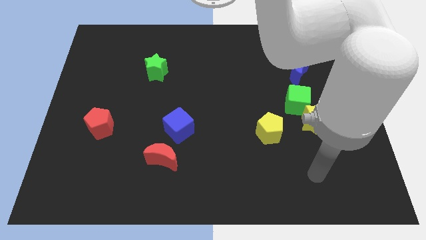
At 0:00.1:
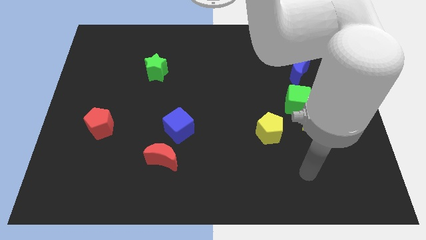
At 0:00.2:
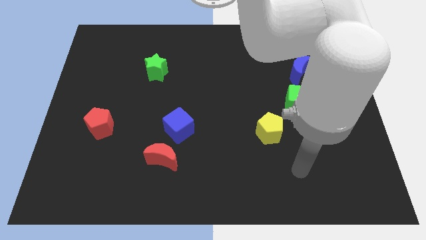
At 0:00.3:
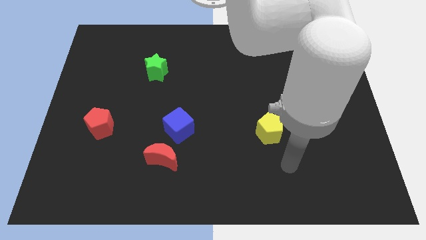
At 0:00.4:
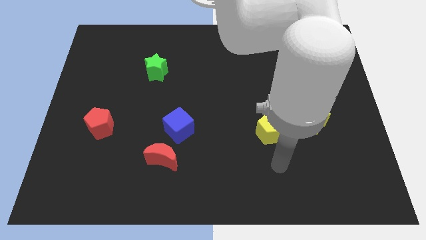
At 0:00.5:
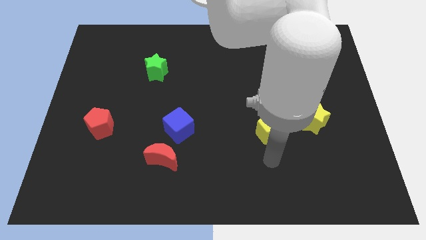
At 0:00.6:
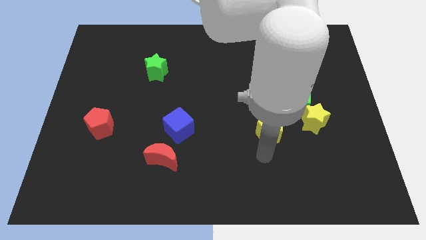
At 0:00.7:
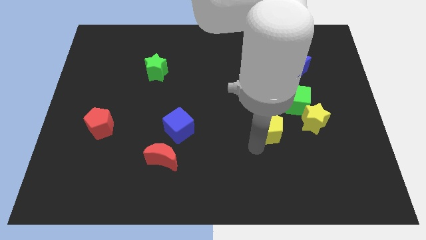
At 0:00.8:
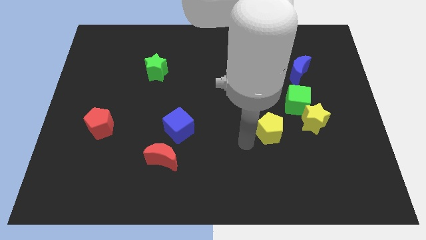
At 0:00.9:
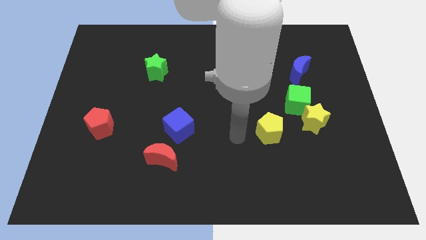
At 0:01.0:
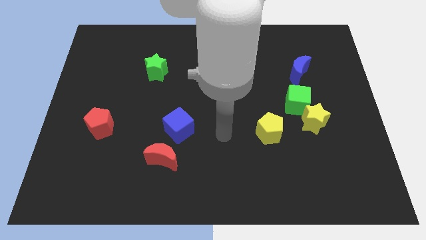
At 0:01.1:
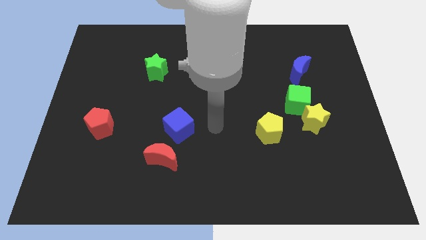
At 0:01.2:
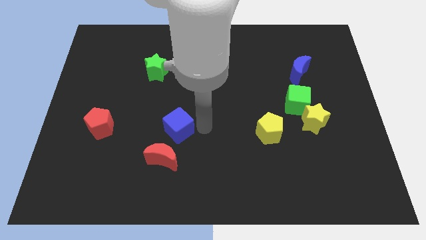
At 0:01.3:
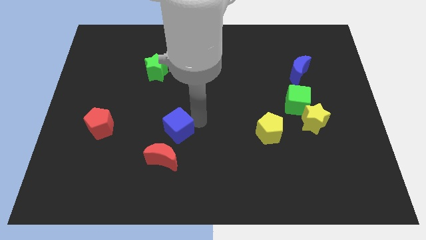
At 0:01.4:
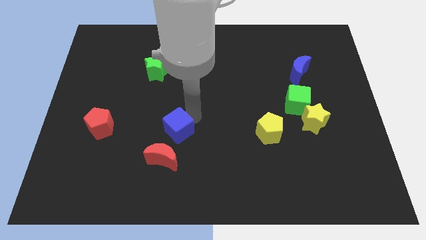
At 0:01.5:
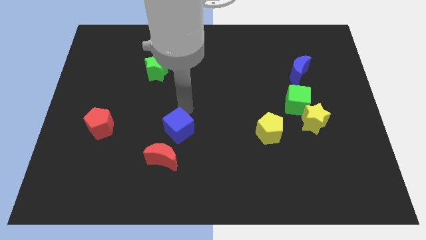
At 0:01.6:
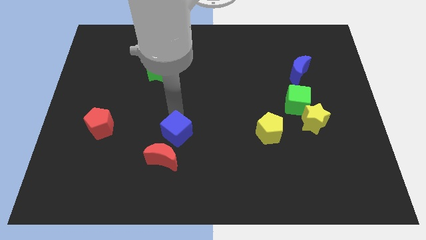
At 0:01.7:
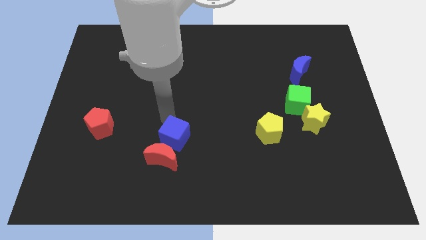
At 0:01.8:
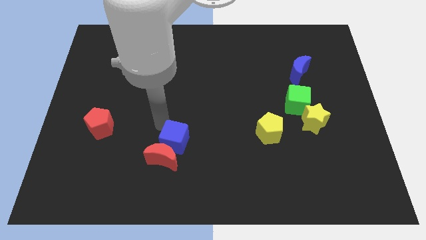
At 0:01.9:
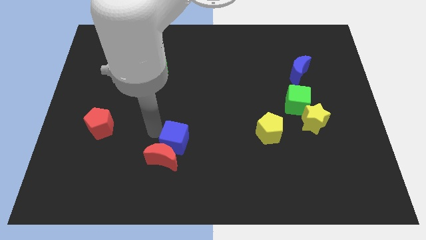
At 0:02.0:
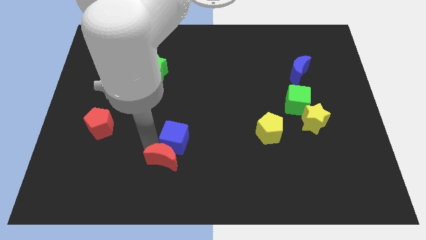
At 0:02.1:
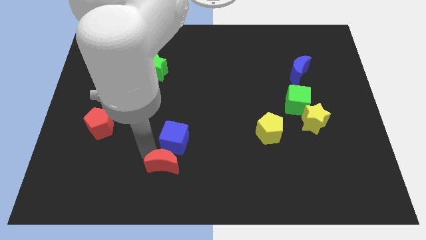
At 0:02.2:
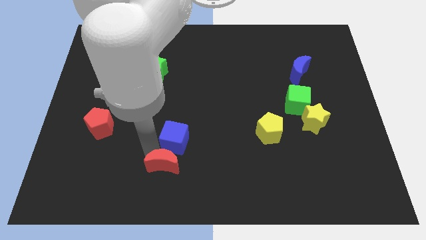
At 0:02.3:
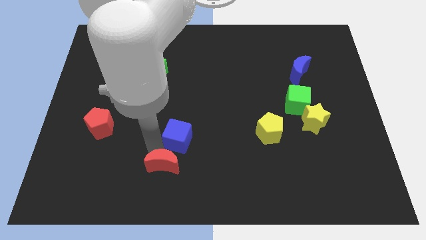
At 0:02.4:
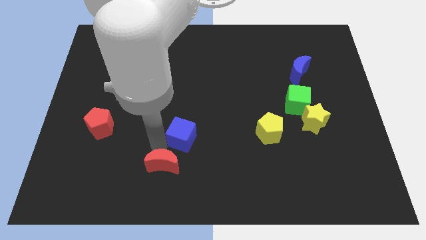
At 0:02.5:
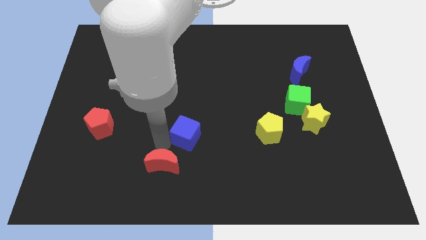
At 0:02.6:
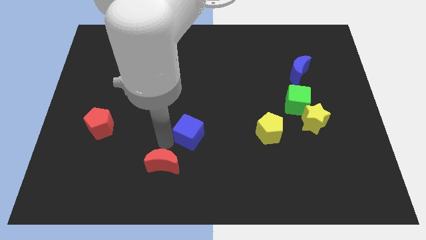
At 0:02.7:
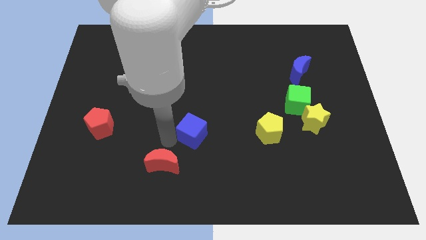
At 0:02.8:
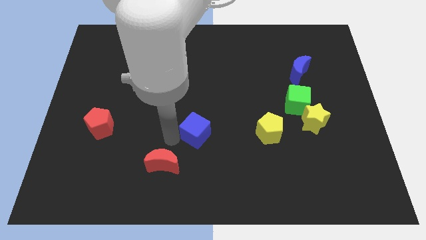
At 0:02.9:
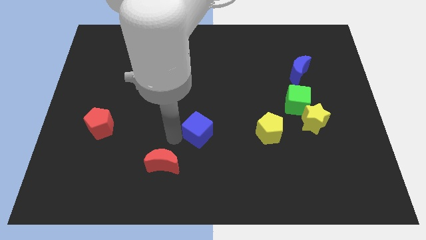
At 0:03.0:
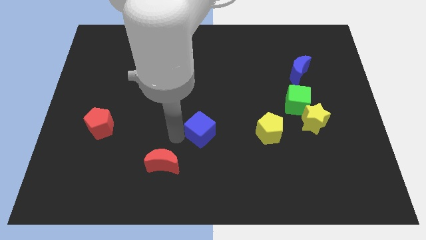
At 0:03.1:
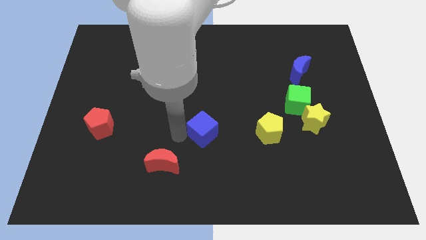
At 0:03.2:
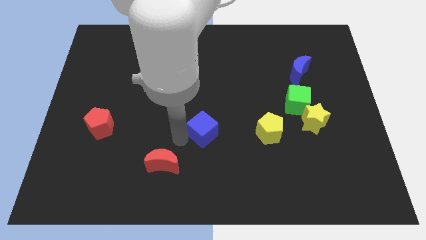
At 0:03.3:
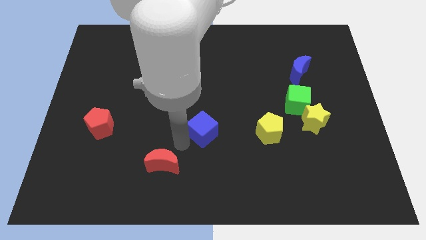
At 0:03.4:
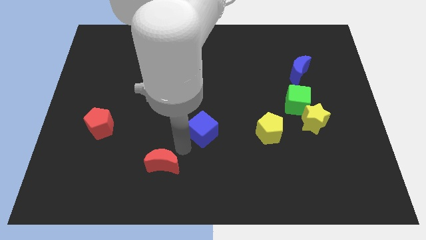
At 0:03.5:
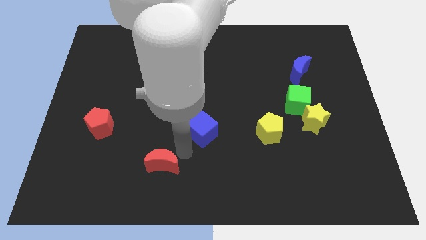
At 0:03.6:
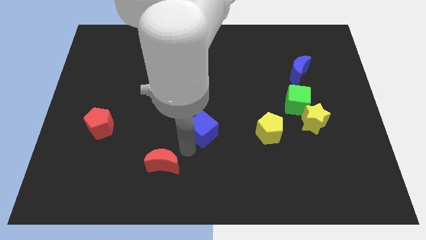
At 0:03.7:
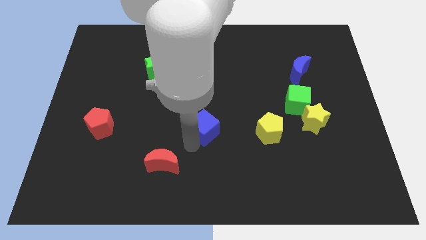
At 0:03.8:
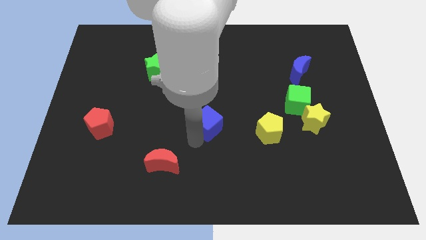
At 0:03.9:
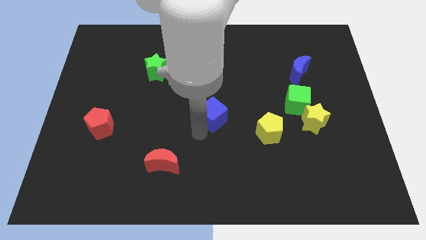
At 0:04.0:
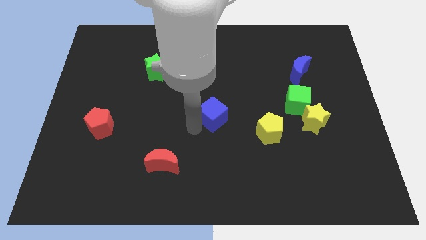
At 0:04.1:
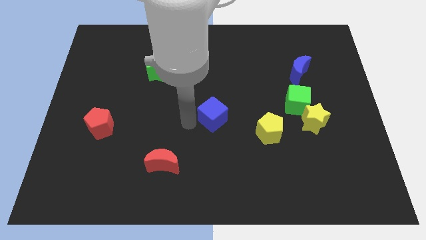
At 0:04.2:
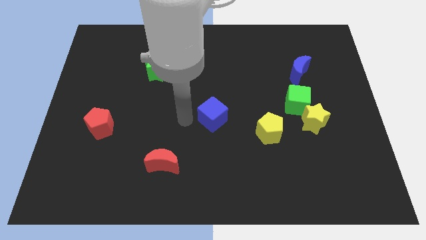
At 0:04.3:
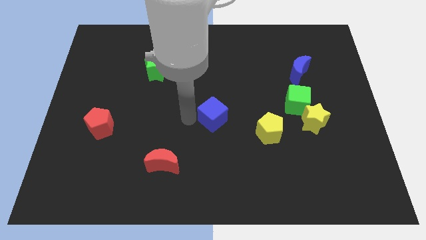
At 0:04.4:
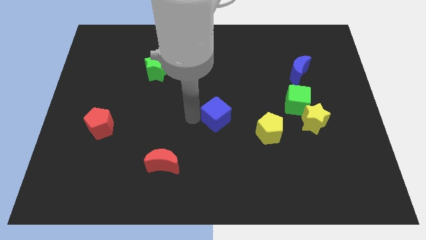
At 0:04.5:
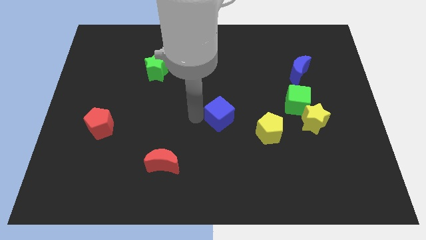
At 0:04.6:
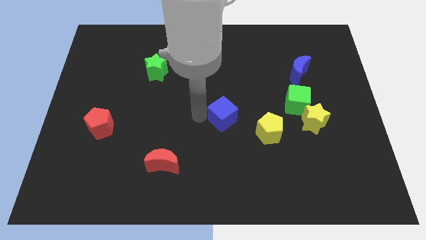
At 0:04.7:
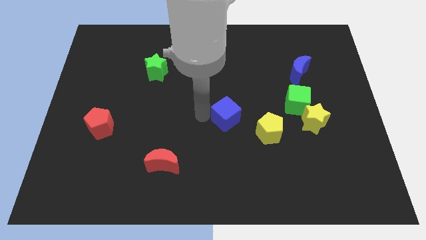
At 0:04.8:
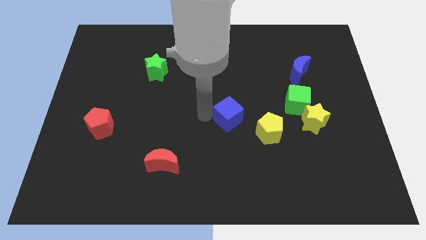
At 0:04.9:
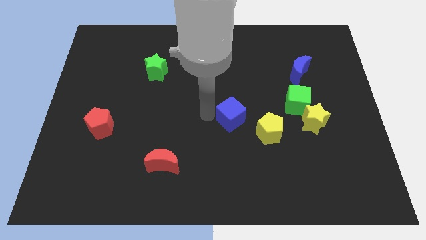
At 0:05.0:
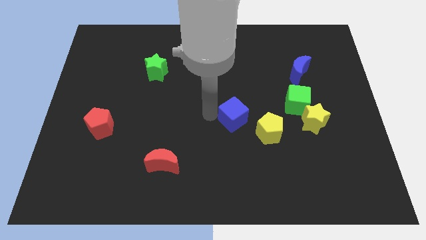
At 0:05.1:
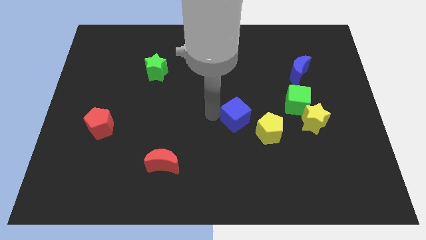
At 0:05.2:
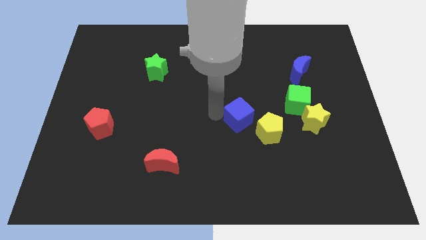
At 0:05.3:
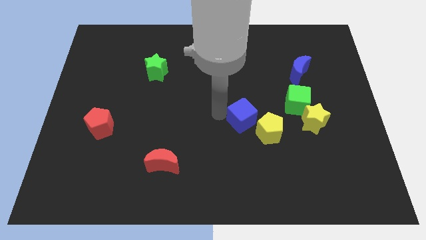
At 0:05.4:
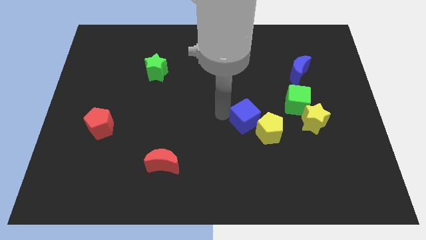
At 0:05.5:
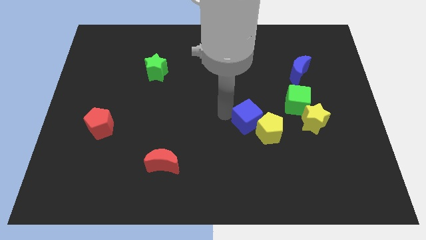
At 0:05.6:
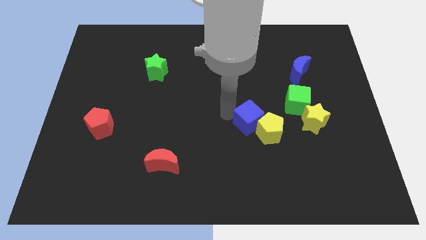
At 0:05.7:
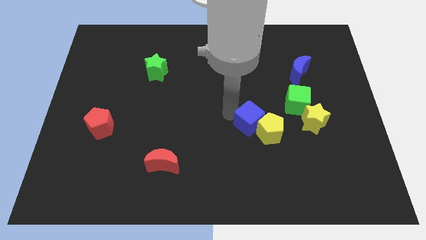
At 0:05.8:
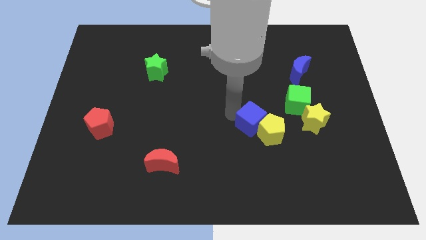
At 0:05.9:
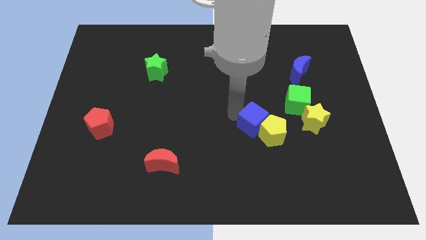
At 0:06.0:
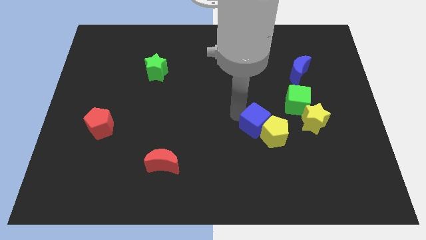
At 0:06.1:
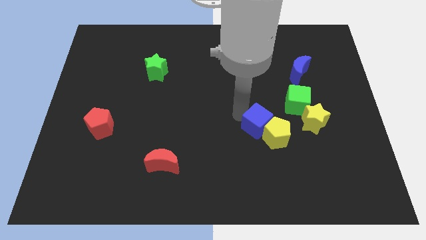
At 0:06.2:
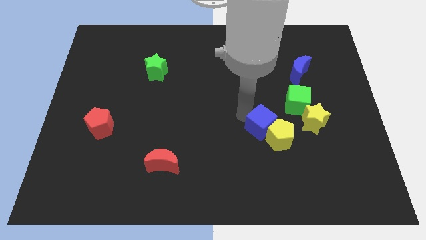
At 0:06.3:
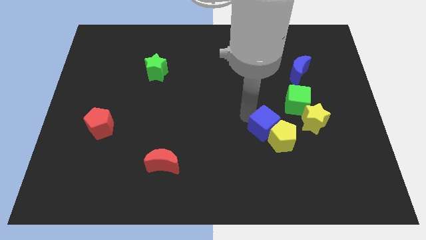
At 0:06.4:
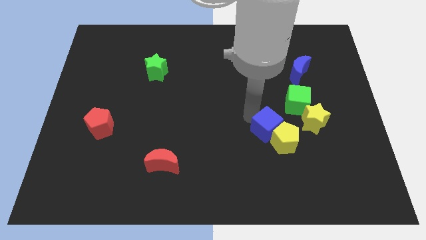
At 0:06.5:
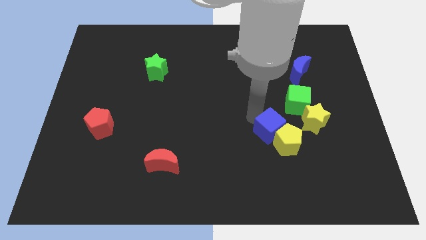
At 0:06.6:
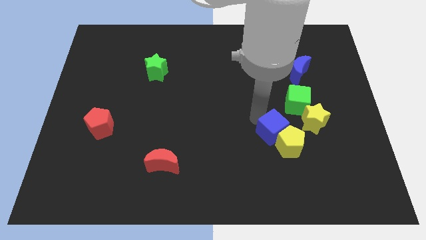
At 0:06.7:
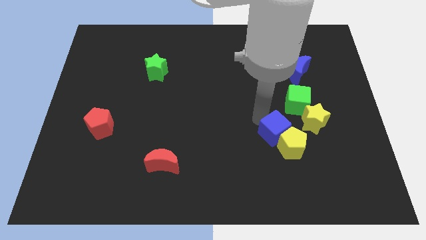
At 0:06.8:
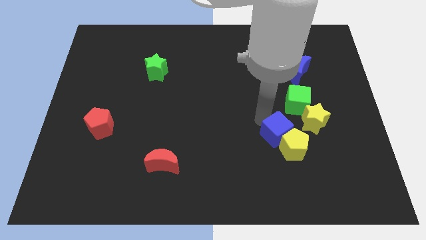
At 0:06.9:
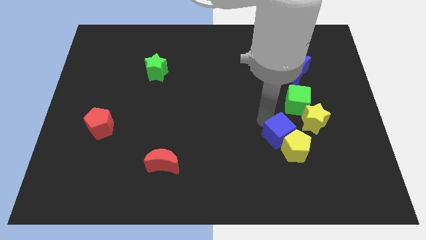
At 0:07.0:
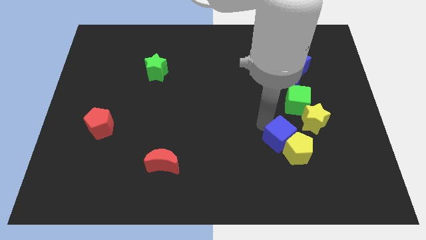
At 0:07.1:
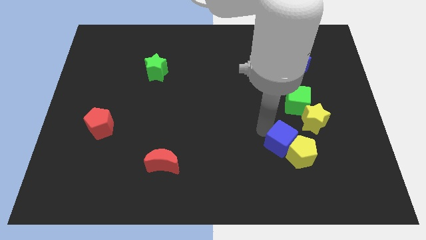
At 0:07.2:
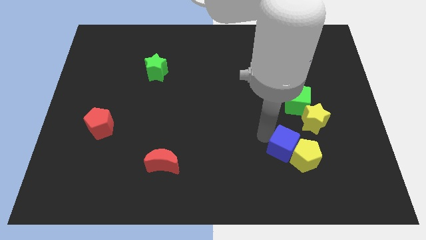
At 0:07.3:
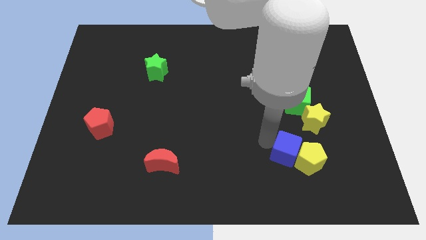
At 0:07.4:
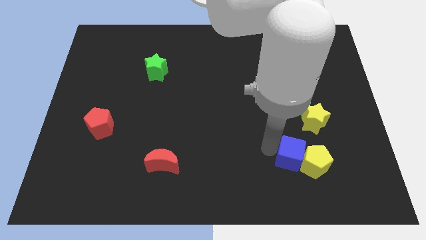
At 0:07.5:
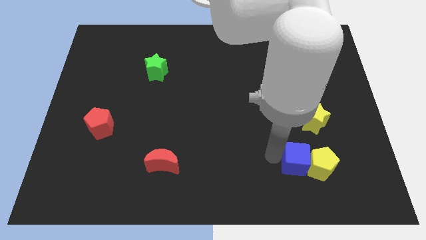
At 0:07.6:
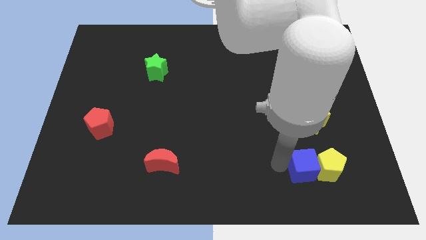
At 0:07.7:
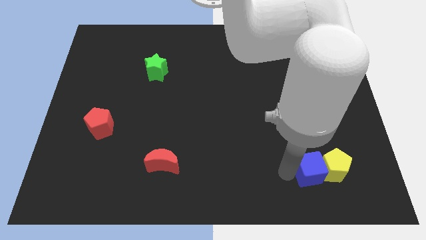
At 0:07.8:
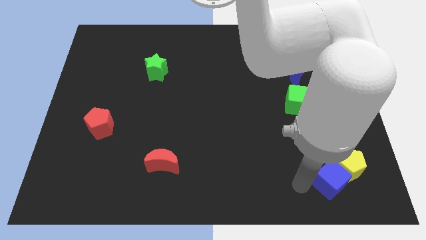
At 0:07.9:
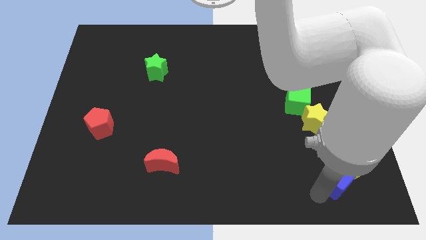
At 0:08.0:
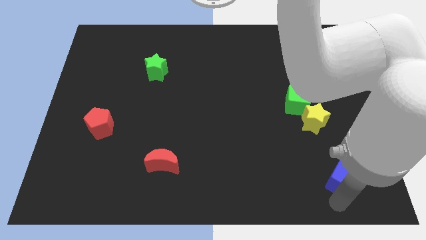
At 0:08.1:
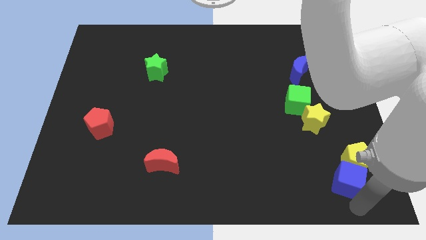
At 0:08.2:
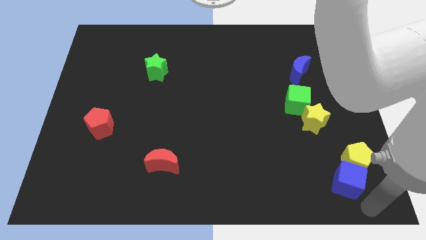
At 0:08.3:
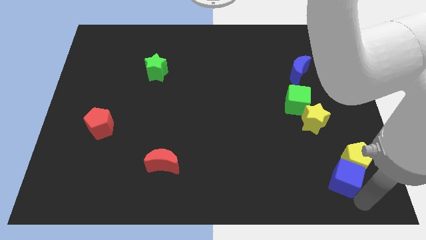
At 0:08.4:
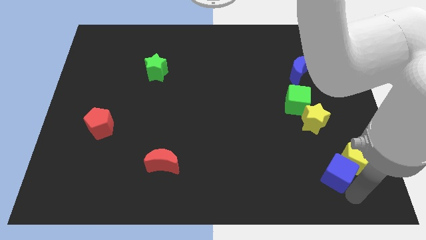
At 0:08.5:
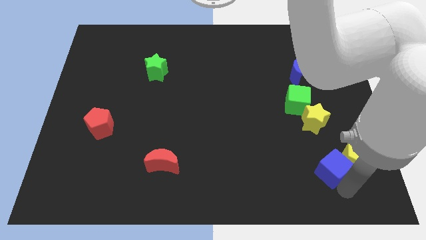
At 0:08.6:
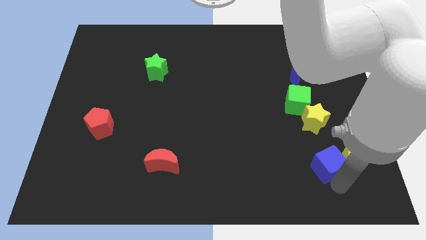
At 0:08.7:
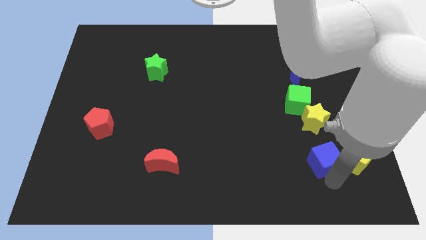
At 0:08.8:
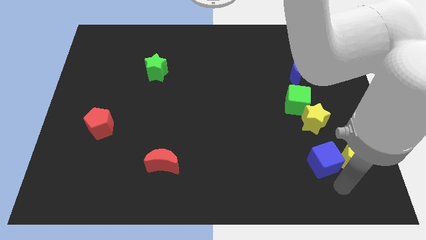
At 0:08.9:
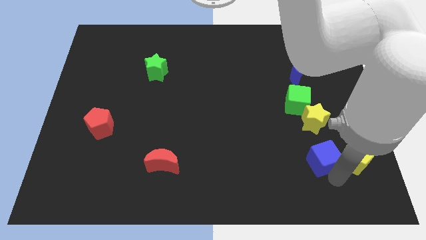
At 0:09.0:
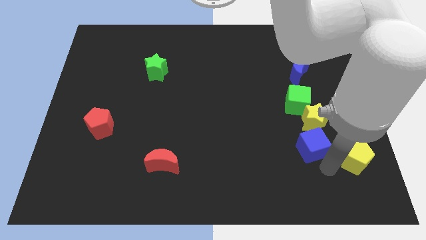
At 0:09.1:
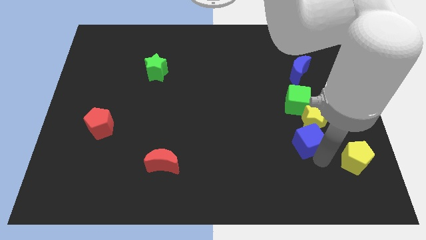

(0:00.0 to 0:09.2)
move the blue cube next to the yellow star
